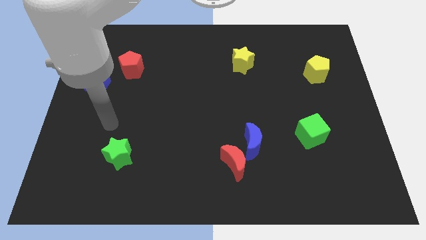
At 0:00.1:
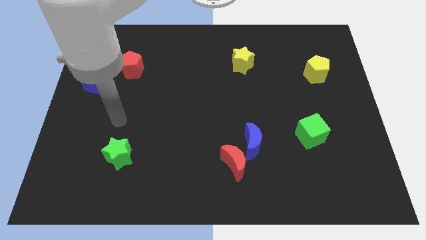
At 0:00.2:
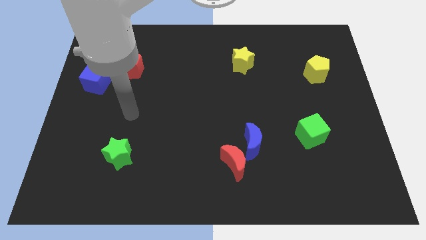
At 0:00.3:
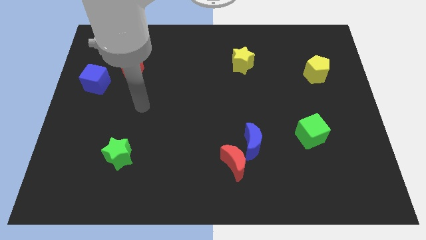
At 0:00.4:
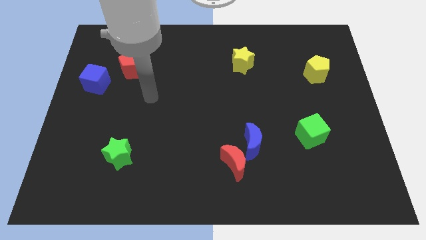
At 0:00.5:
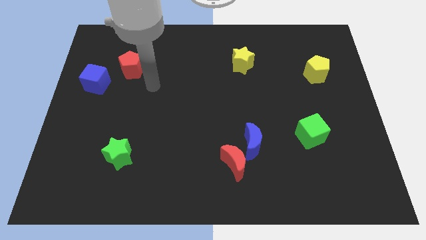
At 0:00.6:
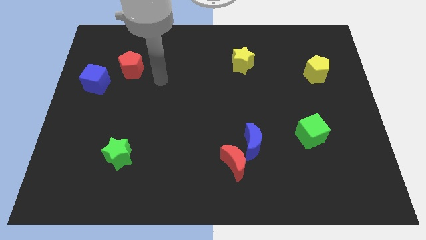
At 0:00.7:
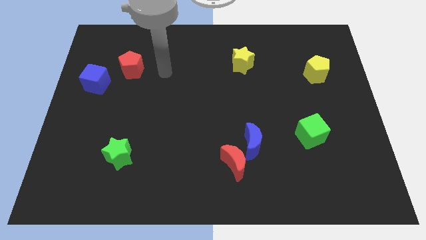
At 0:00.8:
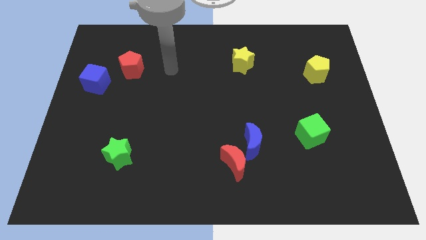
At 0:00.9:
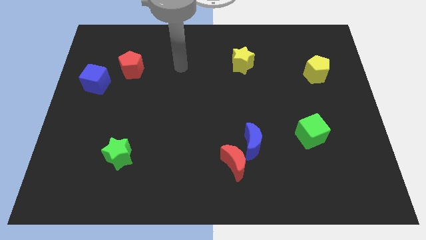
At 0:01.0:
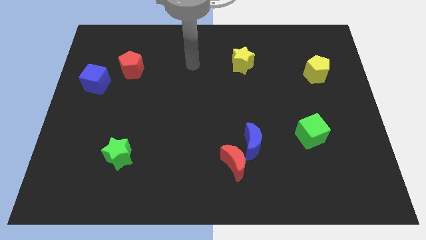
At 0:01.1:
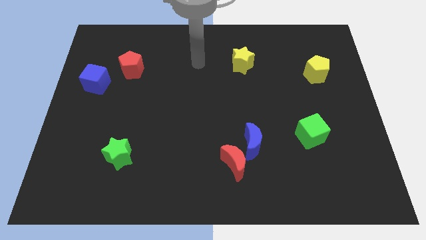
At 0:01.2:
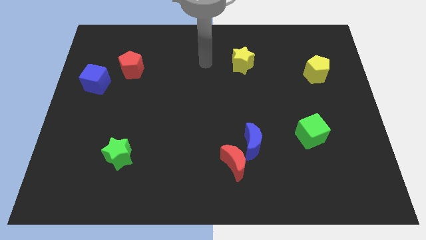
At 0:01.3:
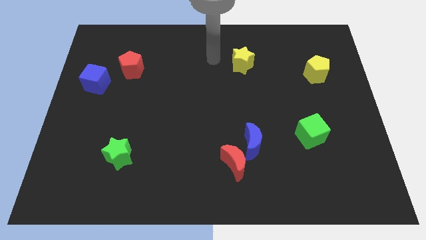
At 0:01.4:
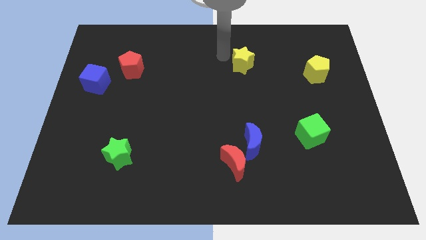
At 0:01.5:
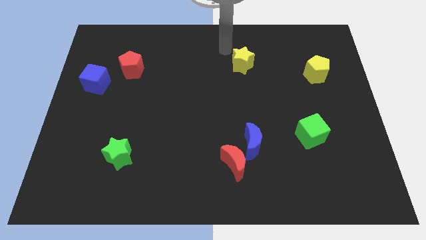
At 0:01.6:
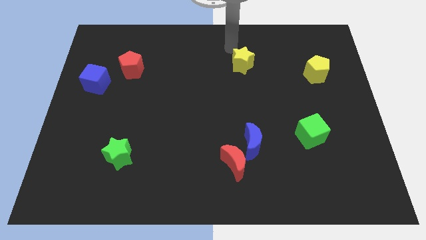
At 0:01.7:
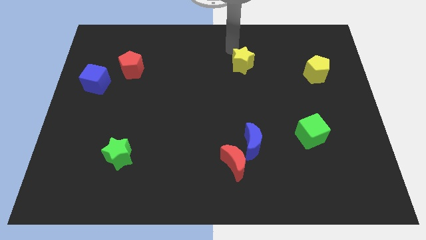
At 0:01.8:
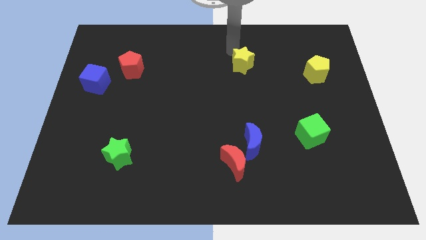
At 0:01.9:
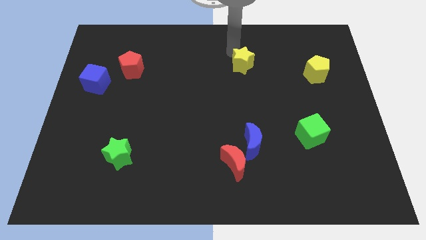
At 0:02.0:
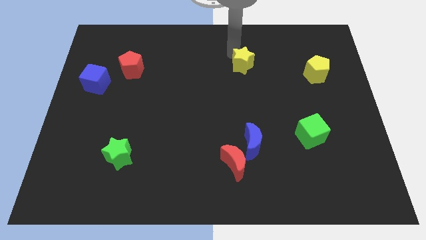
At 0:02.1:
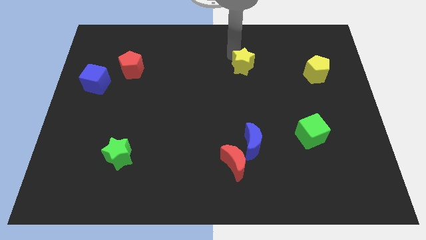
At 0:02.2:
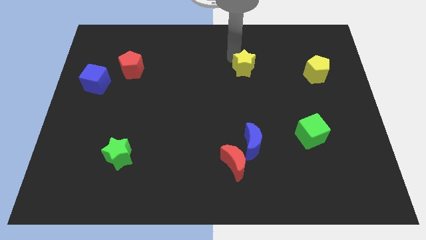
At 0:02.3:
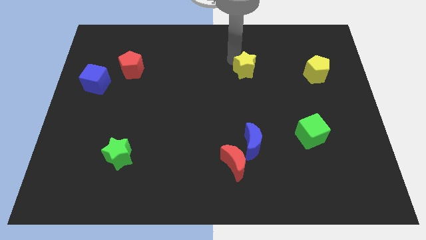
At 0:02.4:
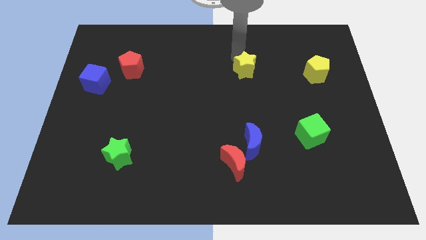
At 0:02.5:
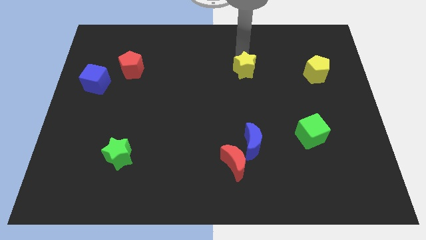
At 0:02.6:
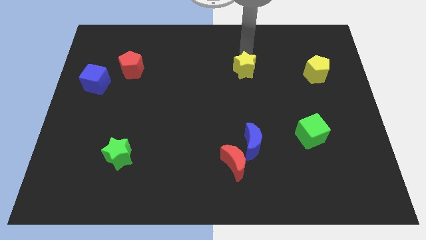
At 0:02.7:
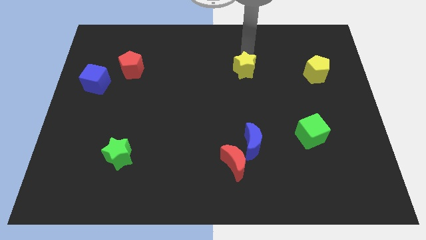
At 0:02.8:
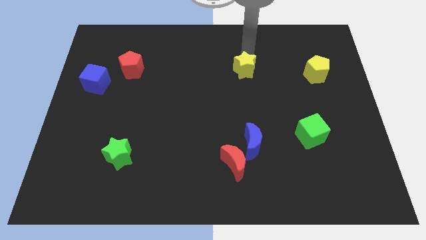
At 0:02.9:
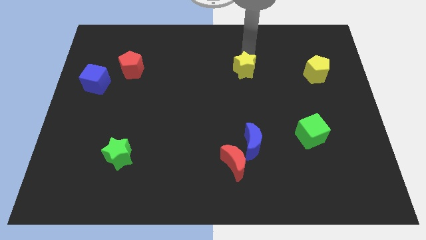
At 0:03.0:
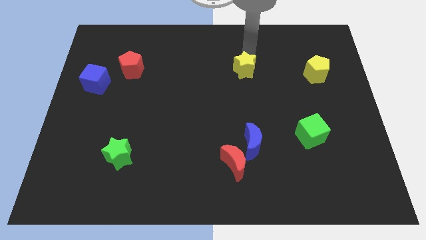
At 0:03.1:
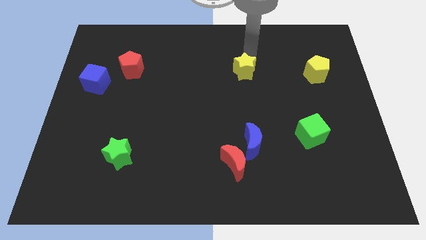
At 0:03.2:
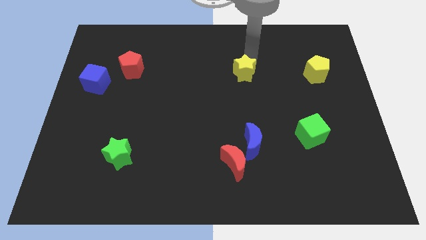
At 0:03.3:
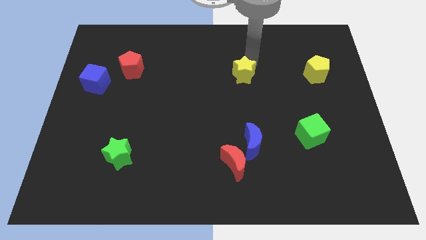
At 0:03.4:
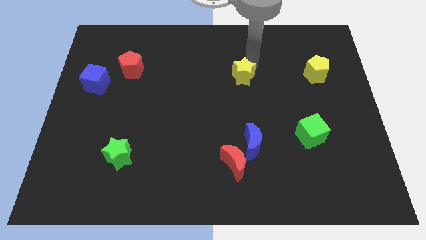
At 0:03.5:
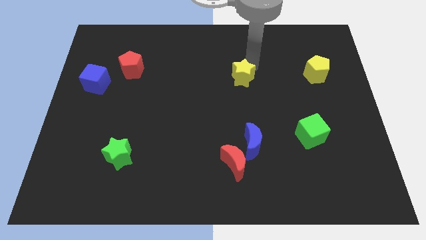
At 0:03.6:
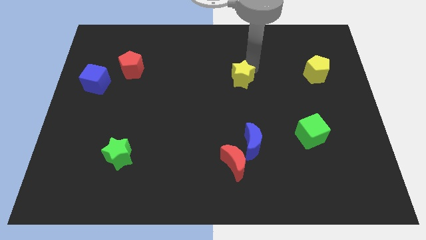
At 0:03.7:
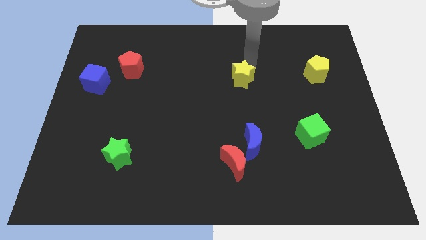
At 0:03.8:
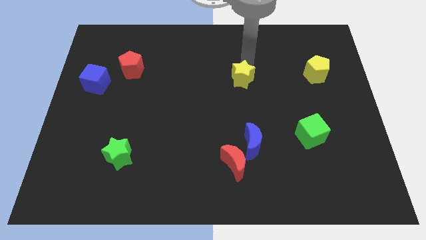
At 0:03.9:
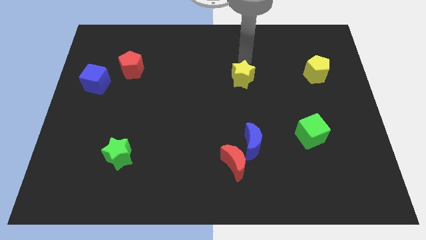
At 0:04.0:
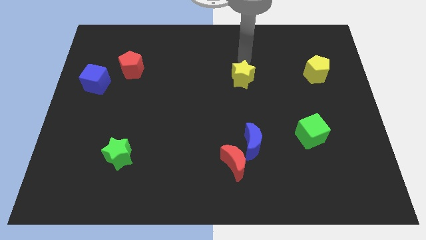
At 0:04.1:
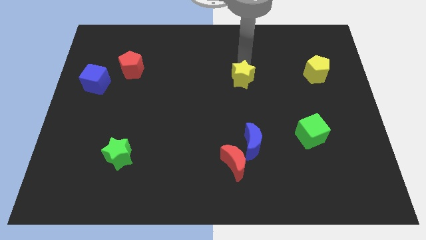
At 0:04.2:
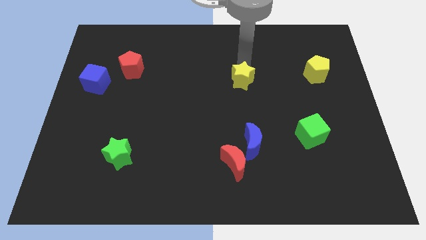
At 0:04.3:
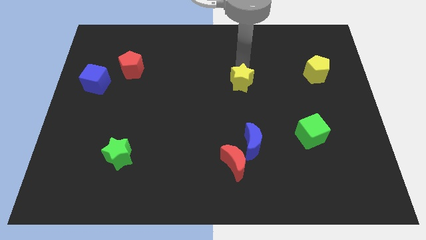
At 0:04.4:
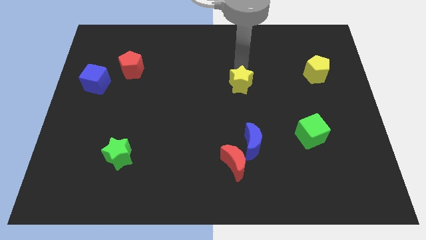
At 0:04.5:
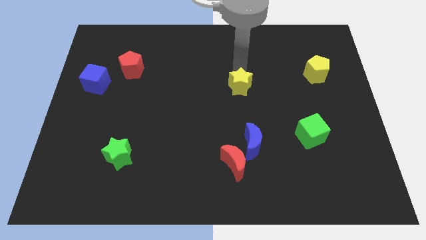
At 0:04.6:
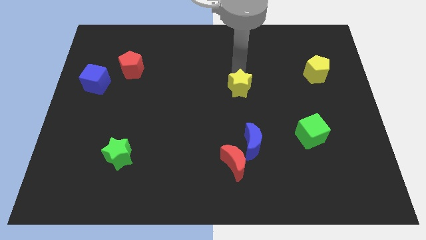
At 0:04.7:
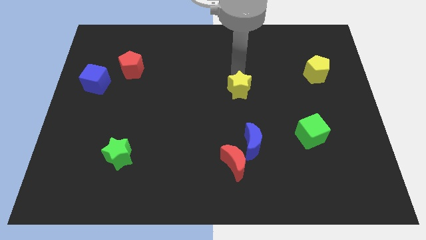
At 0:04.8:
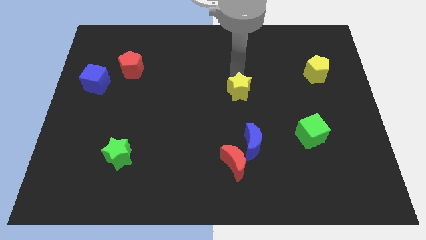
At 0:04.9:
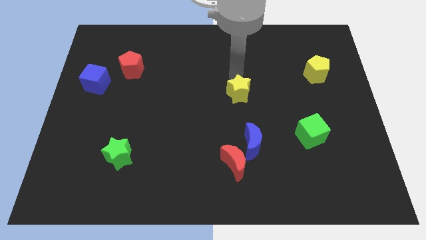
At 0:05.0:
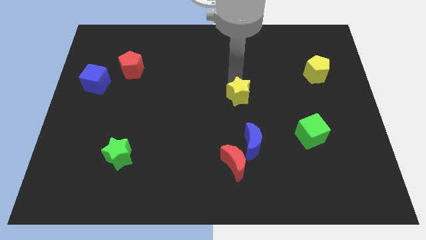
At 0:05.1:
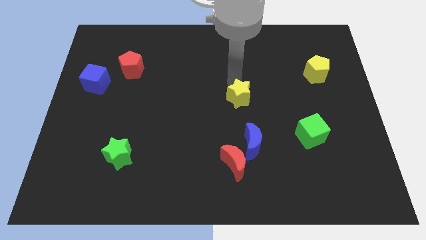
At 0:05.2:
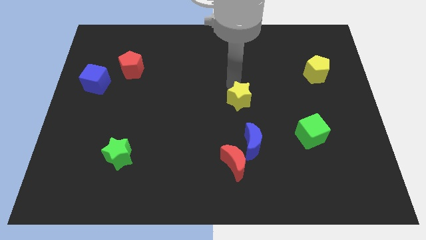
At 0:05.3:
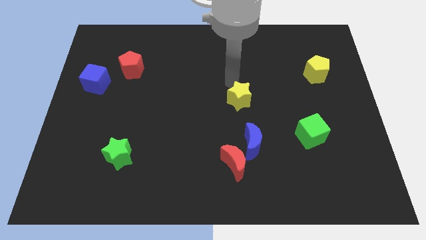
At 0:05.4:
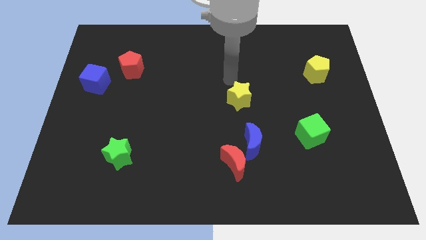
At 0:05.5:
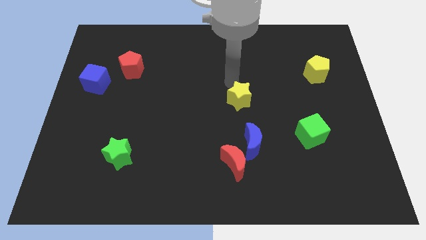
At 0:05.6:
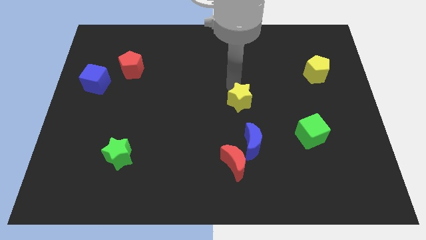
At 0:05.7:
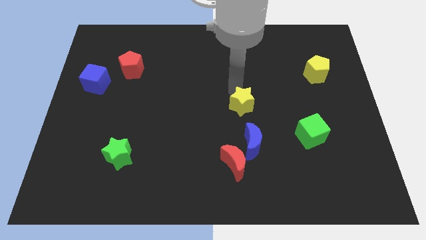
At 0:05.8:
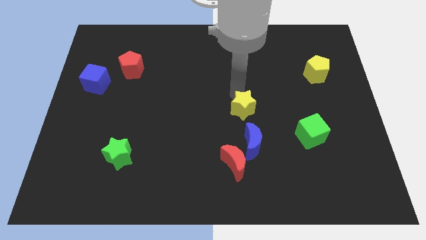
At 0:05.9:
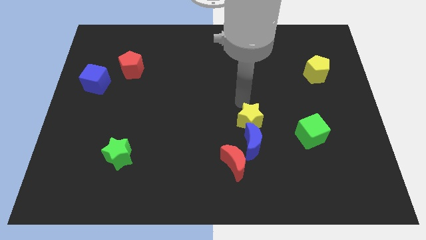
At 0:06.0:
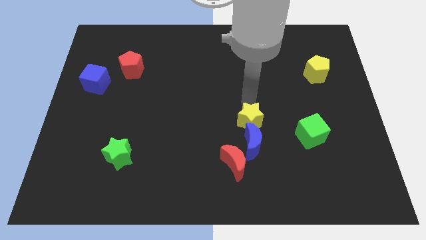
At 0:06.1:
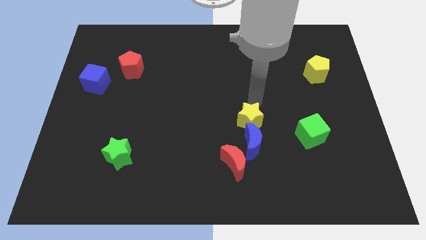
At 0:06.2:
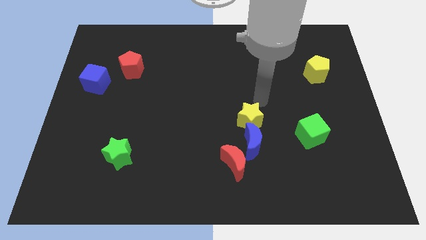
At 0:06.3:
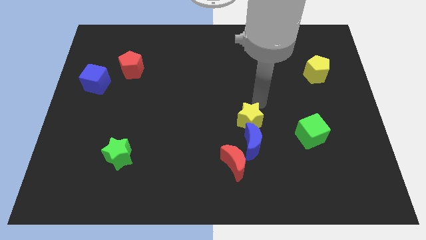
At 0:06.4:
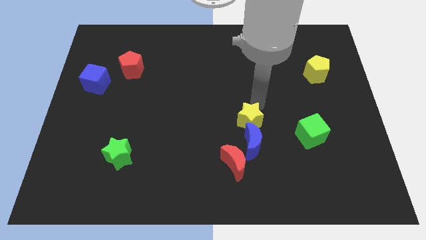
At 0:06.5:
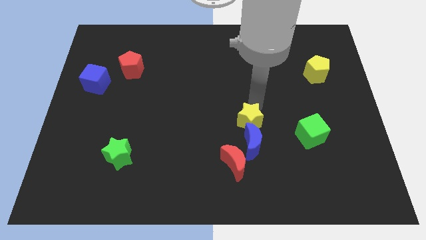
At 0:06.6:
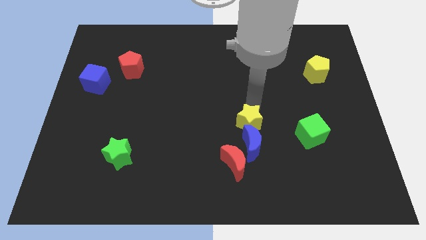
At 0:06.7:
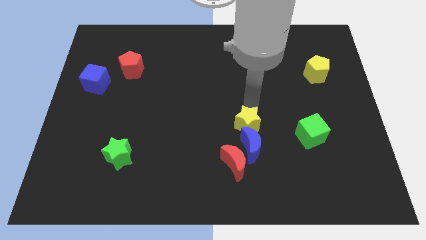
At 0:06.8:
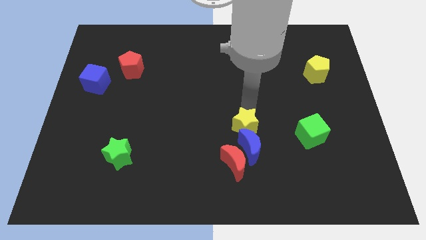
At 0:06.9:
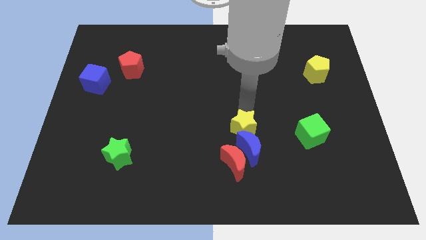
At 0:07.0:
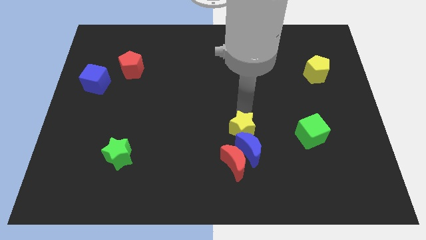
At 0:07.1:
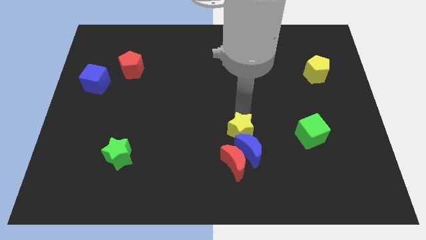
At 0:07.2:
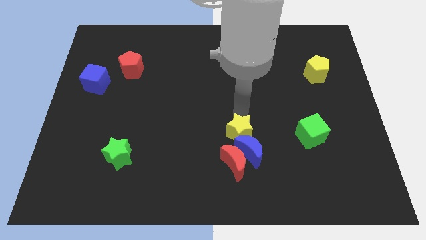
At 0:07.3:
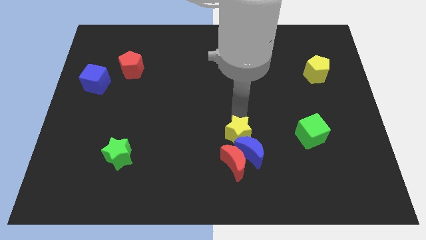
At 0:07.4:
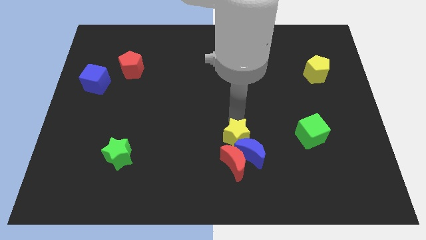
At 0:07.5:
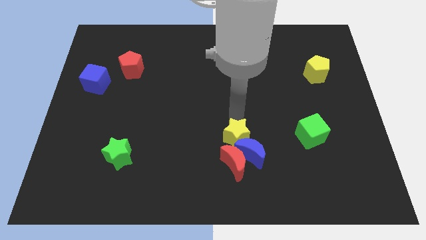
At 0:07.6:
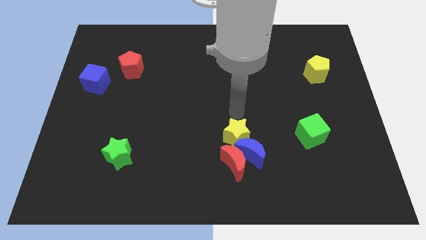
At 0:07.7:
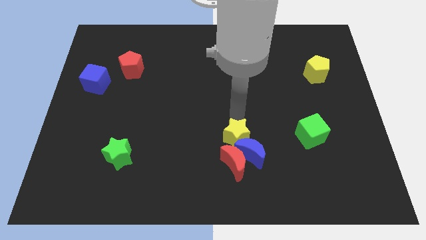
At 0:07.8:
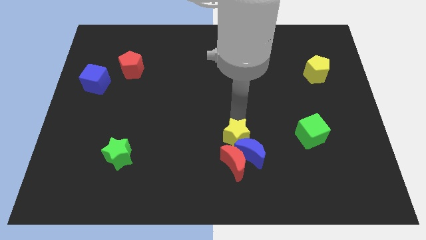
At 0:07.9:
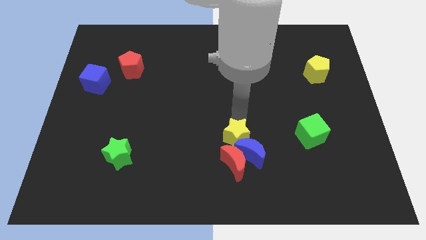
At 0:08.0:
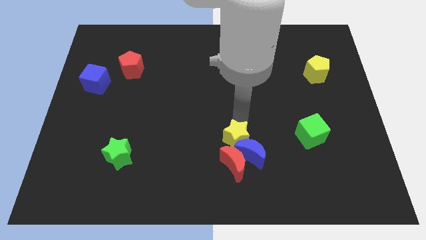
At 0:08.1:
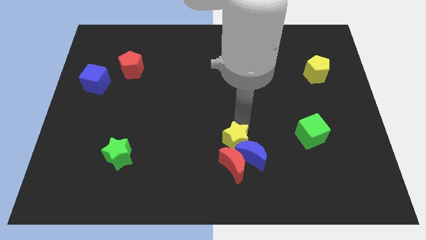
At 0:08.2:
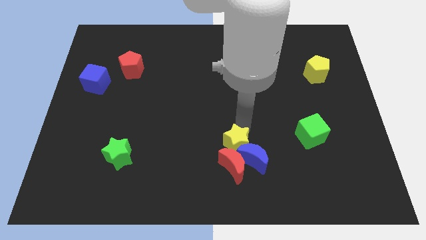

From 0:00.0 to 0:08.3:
slide the yellow star to the red moon
